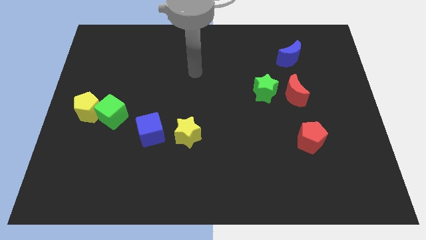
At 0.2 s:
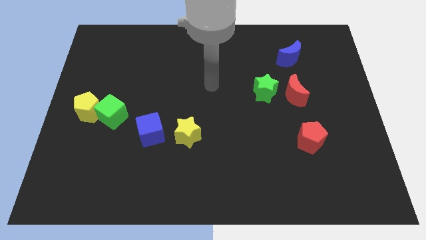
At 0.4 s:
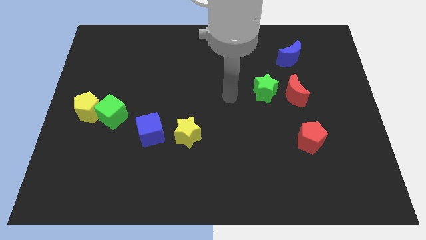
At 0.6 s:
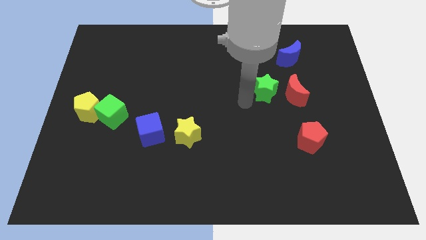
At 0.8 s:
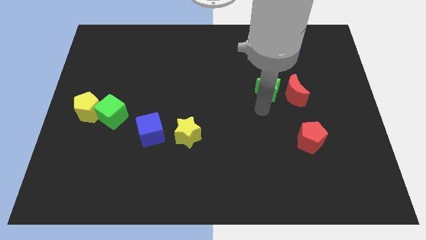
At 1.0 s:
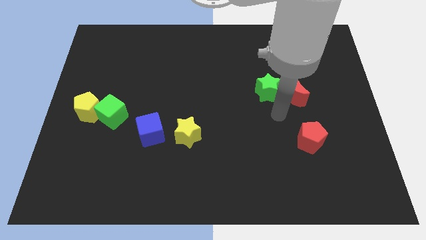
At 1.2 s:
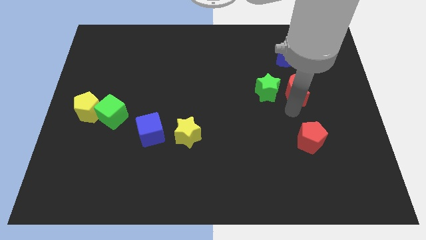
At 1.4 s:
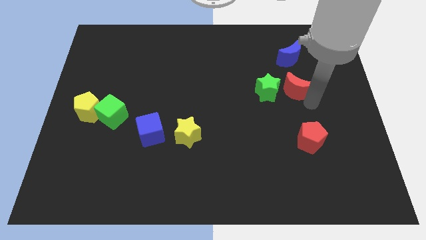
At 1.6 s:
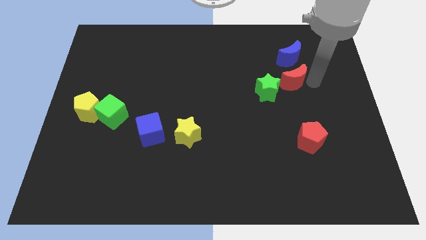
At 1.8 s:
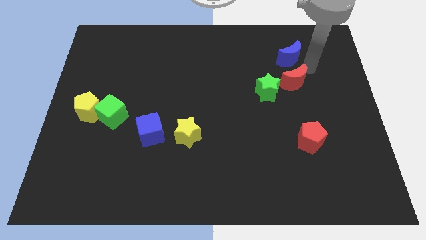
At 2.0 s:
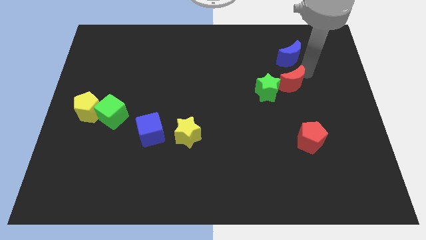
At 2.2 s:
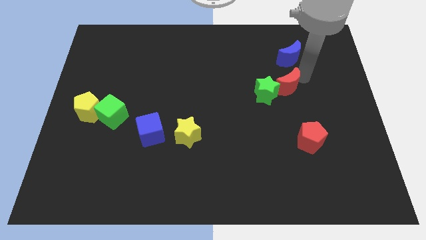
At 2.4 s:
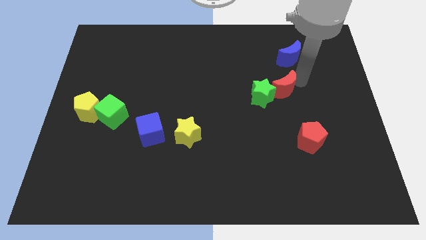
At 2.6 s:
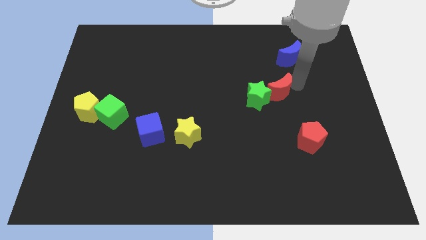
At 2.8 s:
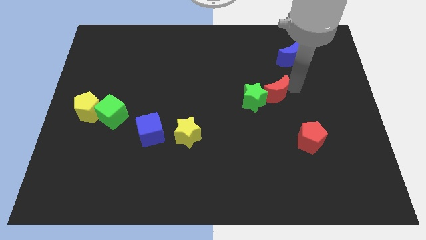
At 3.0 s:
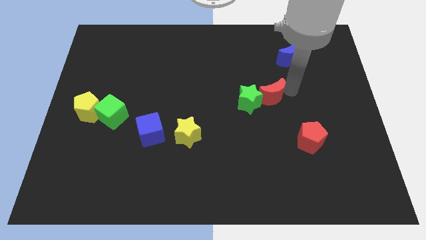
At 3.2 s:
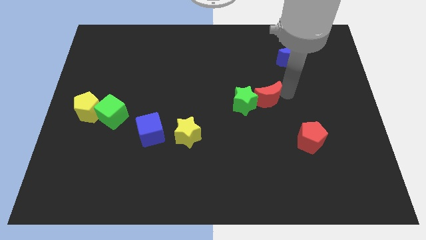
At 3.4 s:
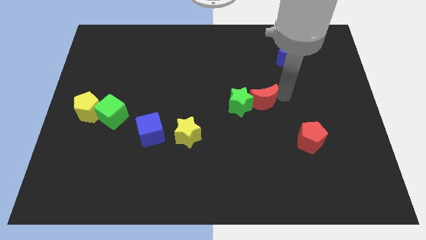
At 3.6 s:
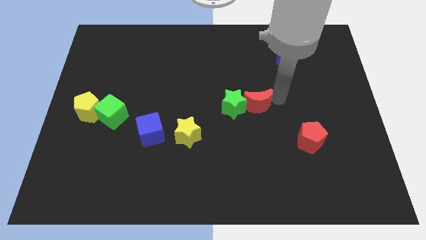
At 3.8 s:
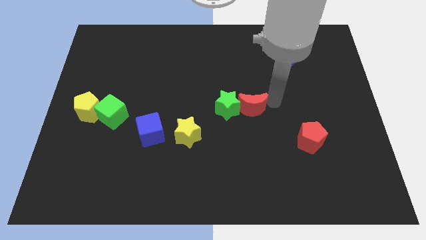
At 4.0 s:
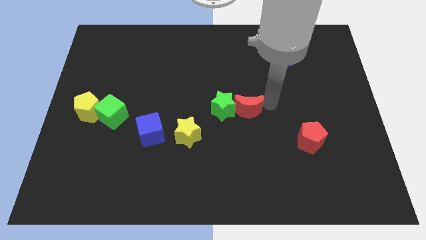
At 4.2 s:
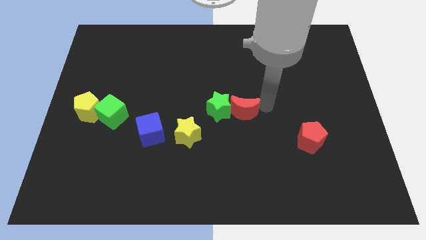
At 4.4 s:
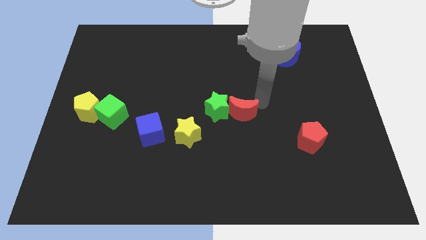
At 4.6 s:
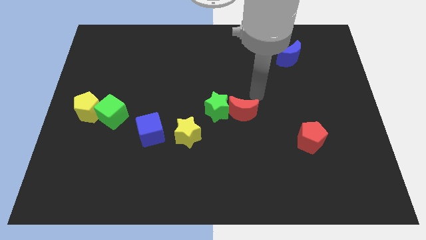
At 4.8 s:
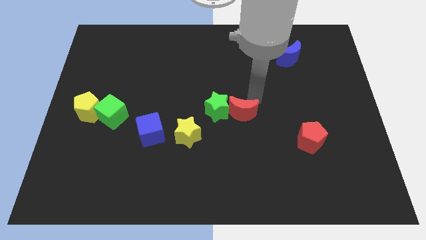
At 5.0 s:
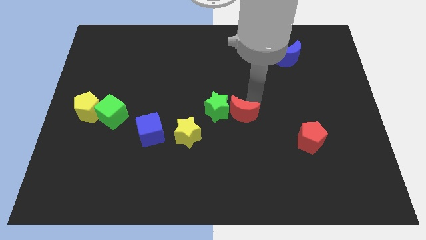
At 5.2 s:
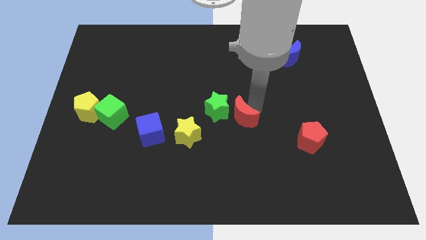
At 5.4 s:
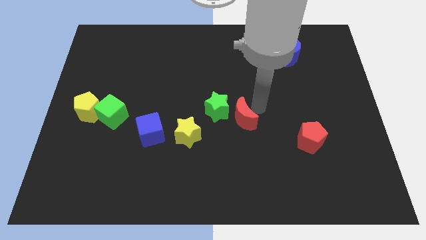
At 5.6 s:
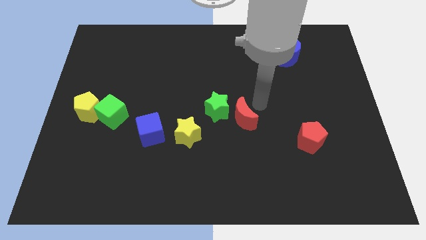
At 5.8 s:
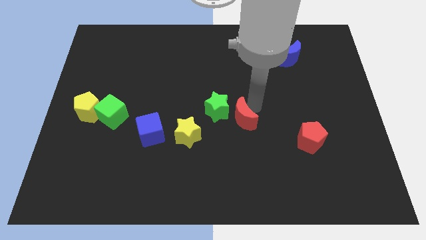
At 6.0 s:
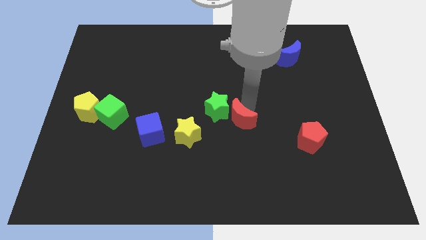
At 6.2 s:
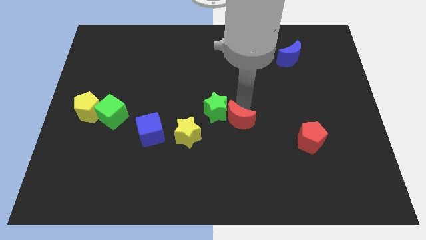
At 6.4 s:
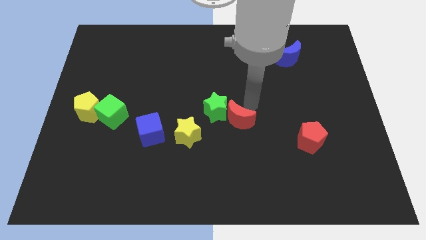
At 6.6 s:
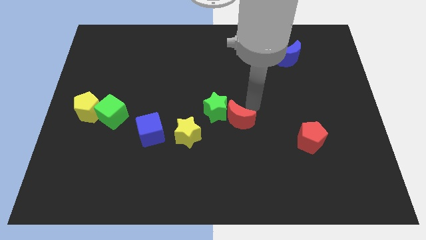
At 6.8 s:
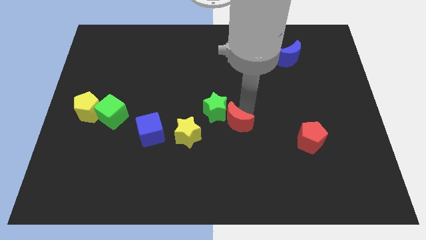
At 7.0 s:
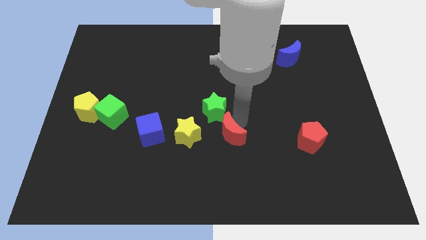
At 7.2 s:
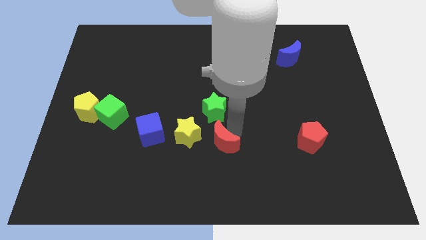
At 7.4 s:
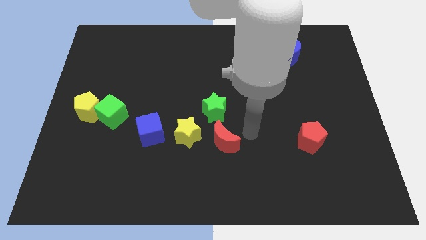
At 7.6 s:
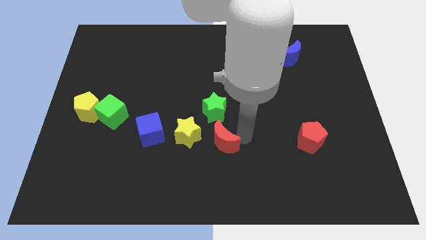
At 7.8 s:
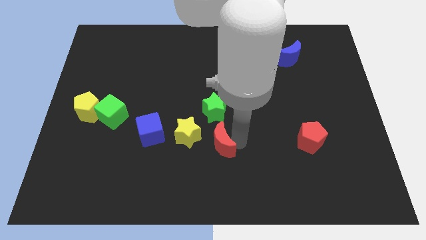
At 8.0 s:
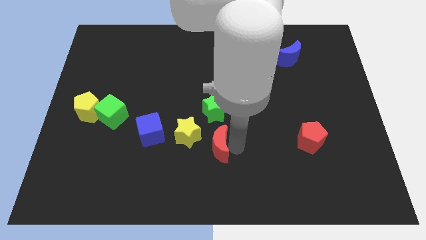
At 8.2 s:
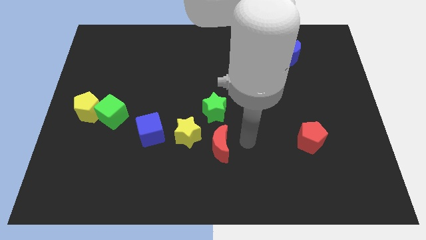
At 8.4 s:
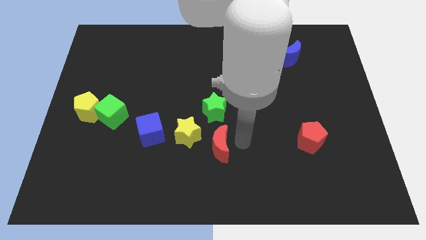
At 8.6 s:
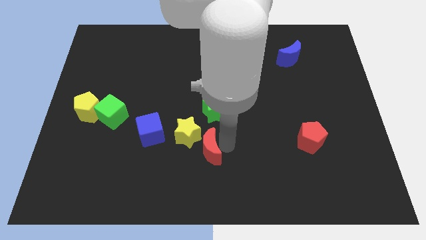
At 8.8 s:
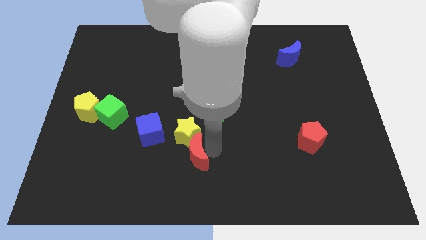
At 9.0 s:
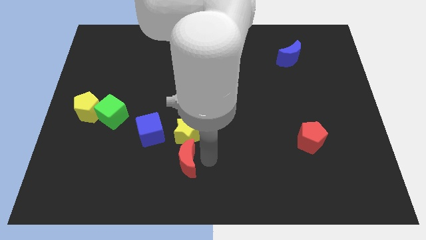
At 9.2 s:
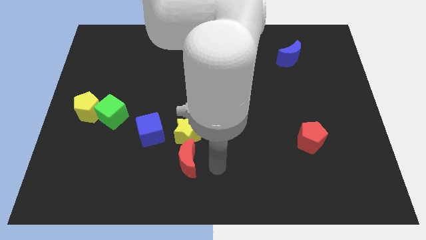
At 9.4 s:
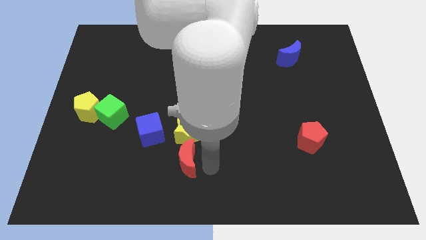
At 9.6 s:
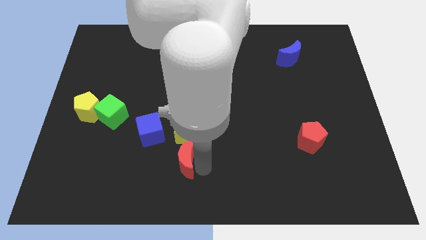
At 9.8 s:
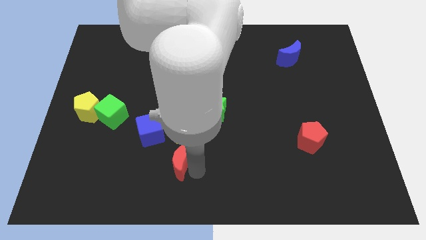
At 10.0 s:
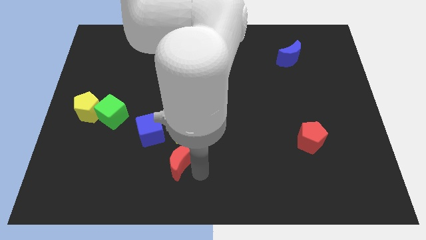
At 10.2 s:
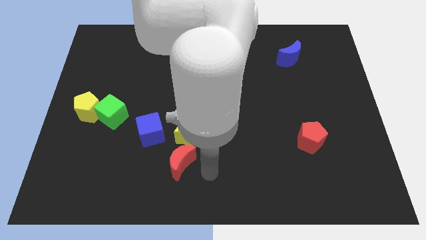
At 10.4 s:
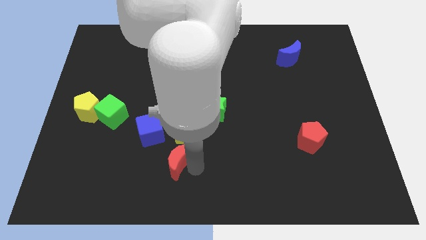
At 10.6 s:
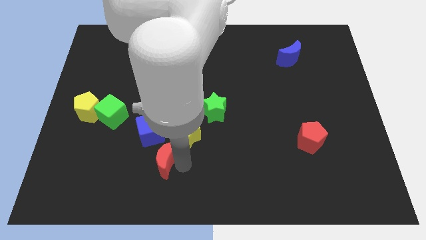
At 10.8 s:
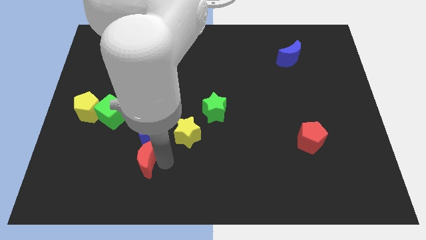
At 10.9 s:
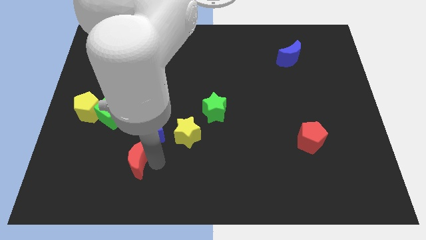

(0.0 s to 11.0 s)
slide the red moon diagonally down and to the left of the blue cube

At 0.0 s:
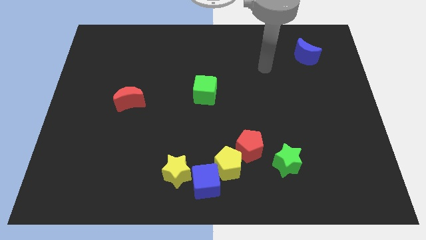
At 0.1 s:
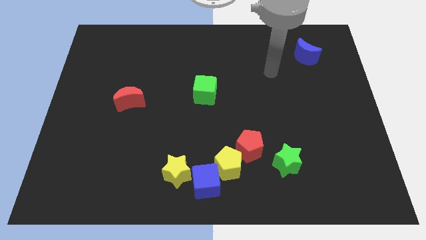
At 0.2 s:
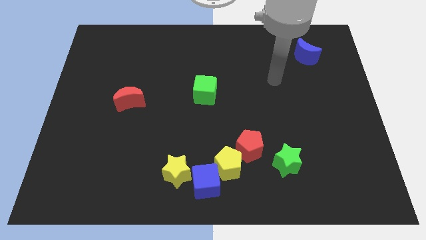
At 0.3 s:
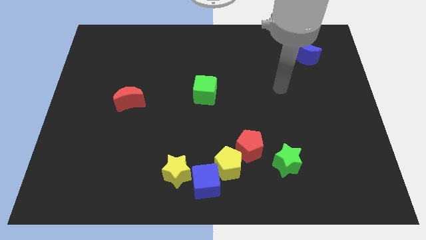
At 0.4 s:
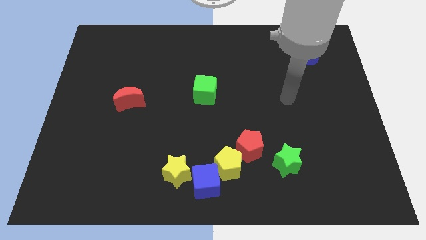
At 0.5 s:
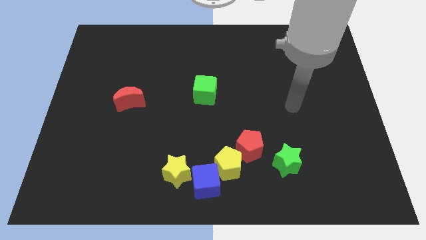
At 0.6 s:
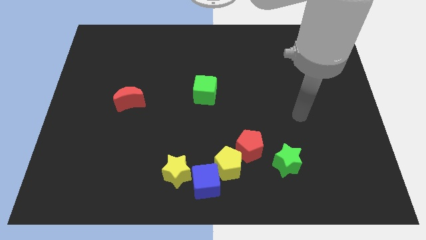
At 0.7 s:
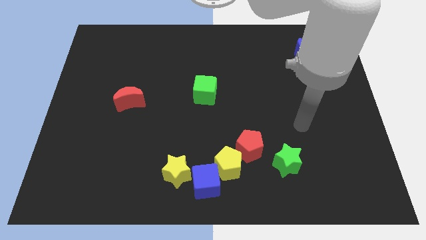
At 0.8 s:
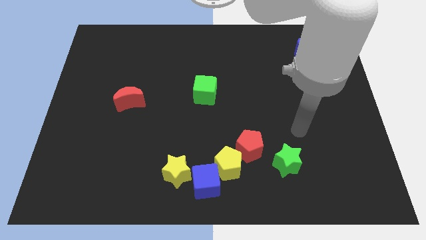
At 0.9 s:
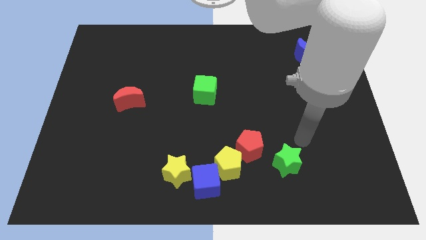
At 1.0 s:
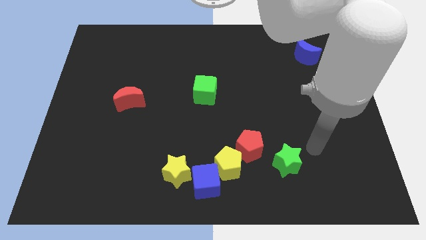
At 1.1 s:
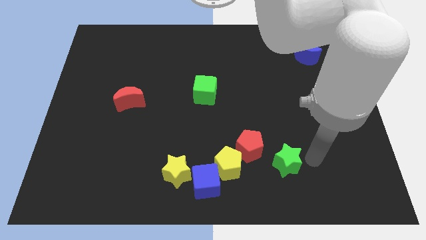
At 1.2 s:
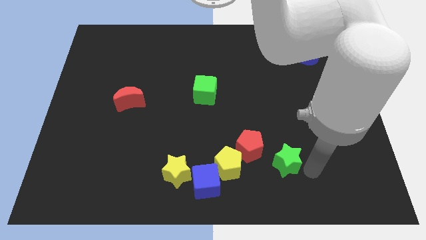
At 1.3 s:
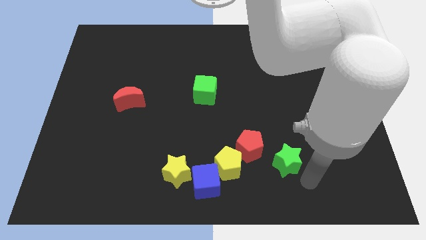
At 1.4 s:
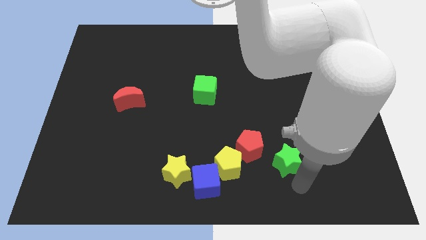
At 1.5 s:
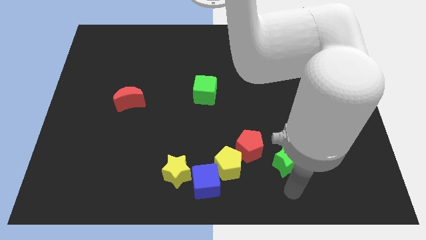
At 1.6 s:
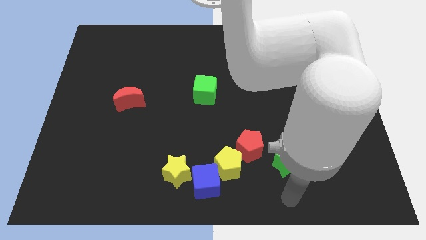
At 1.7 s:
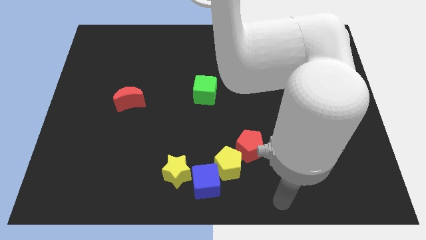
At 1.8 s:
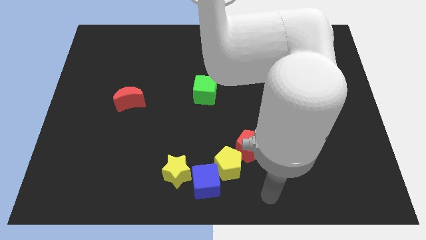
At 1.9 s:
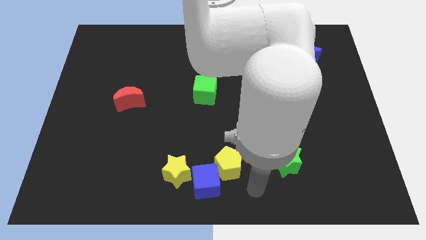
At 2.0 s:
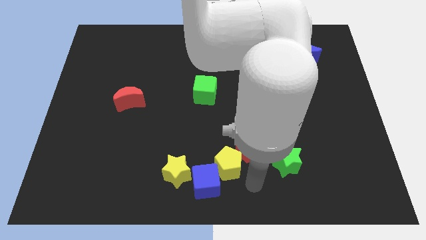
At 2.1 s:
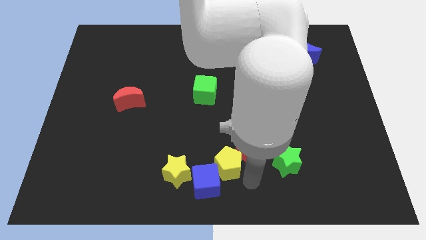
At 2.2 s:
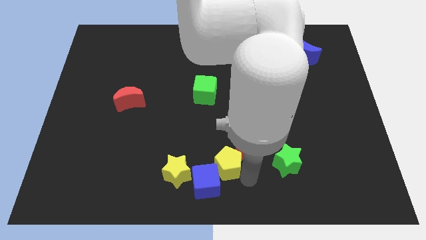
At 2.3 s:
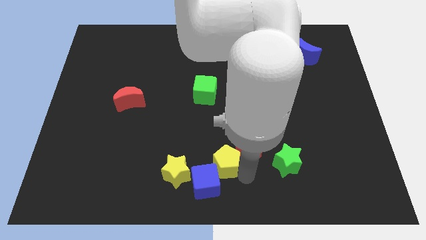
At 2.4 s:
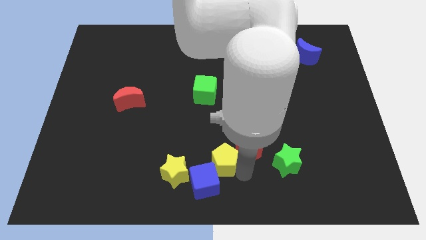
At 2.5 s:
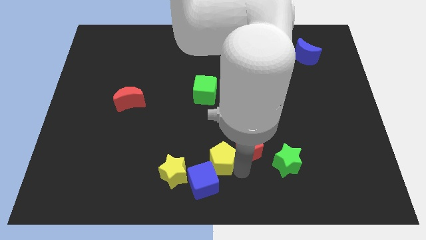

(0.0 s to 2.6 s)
move the yellow pentagon to the top right of the yellow star
